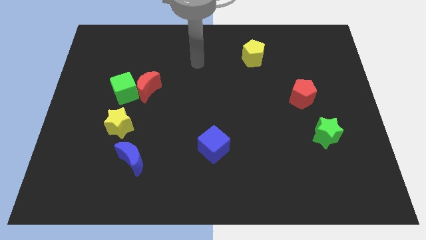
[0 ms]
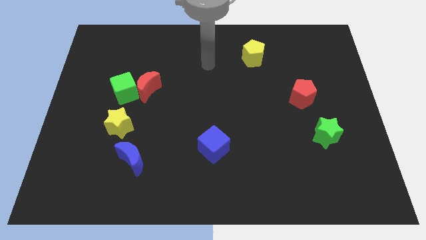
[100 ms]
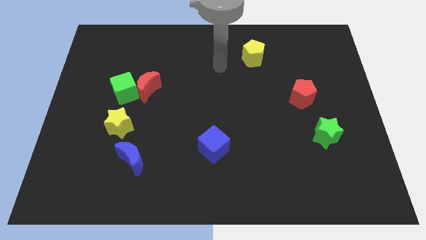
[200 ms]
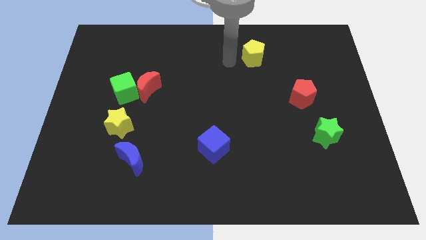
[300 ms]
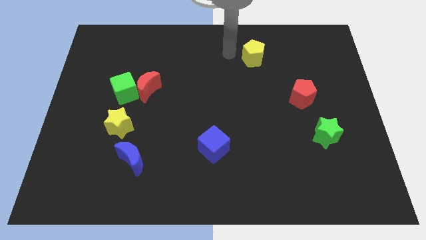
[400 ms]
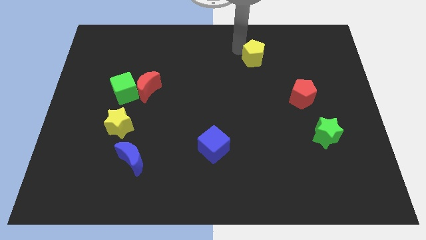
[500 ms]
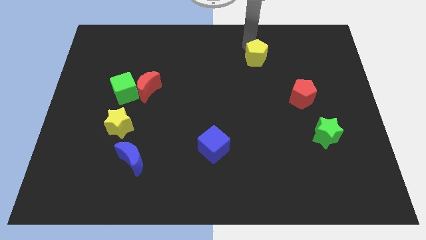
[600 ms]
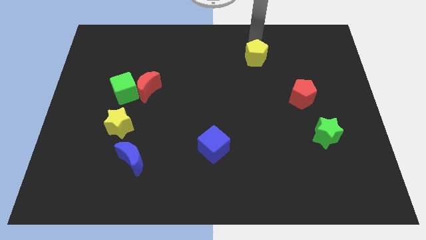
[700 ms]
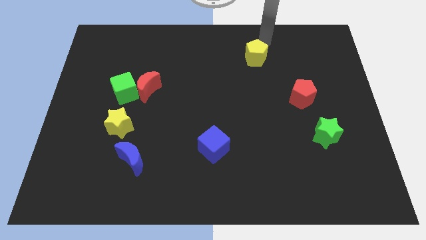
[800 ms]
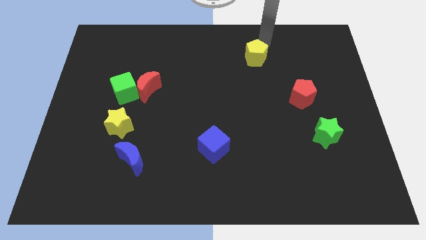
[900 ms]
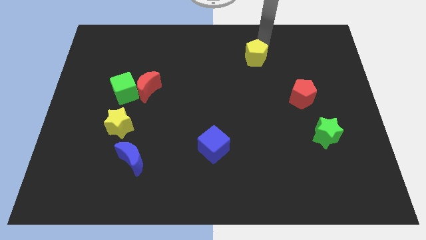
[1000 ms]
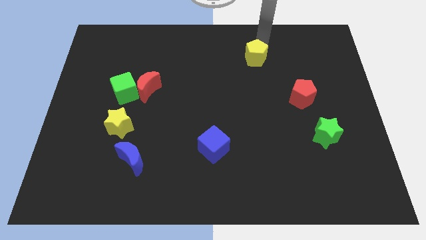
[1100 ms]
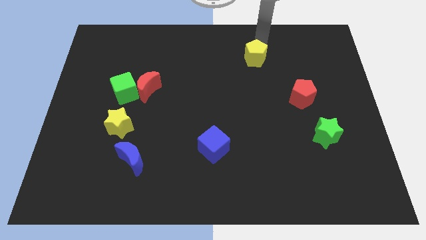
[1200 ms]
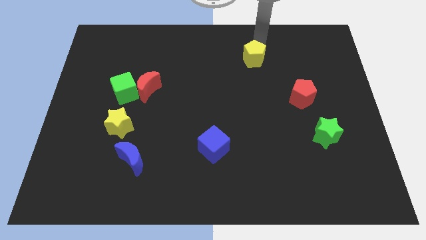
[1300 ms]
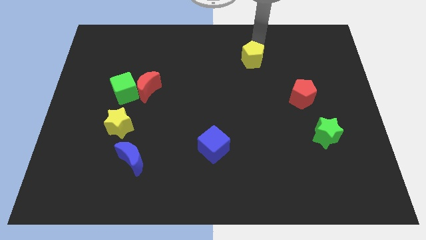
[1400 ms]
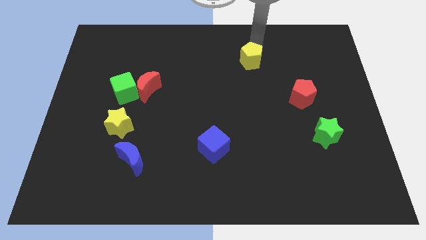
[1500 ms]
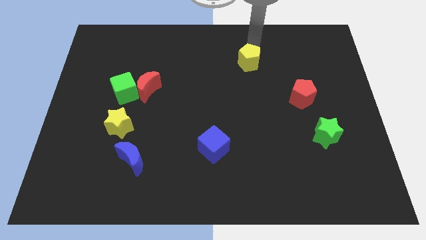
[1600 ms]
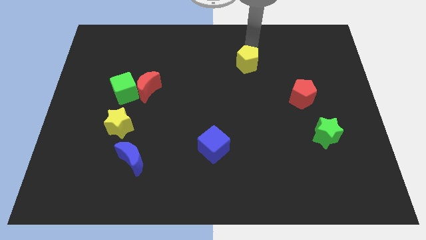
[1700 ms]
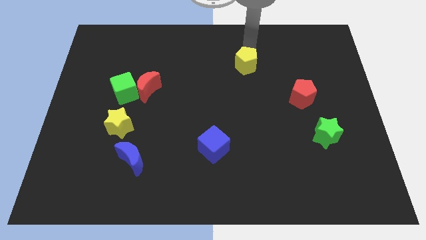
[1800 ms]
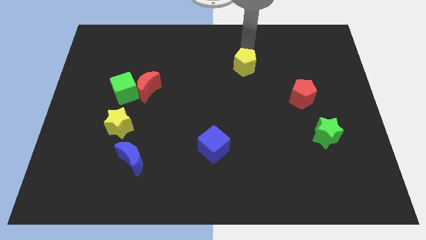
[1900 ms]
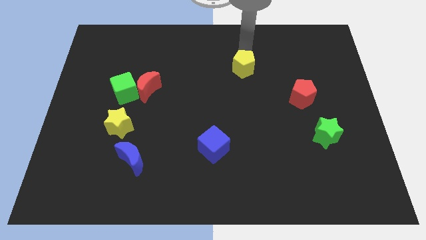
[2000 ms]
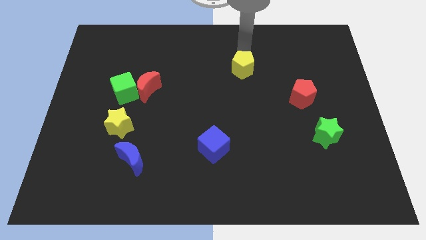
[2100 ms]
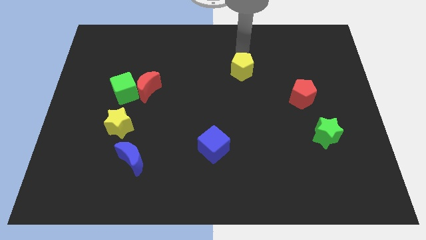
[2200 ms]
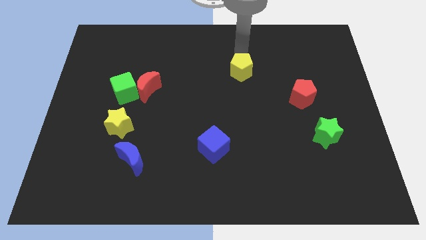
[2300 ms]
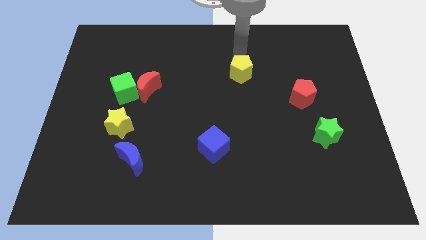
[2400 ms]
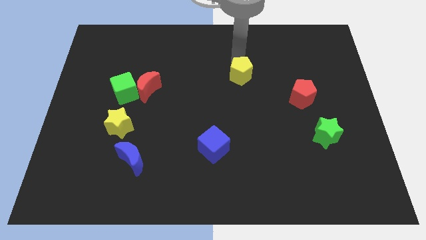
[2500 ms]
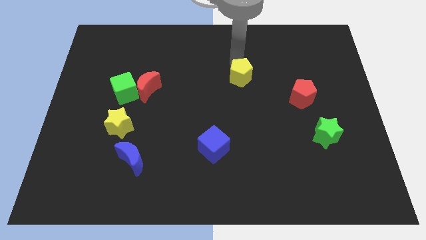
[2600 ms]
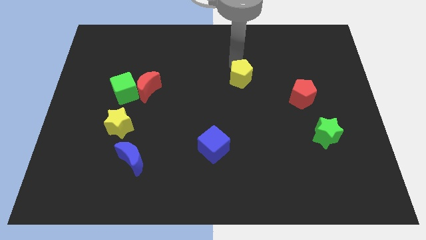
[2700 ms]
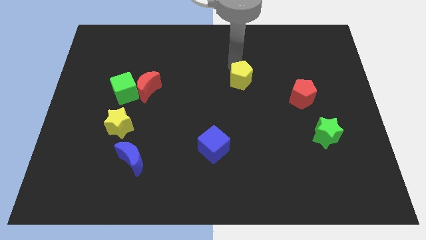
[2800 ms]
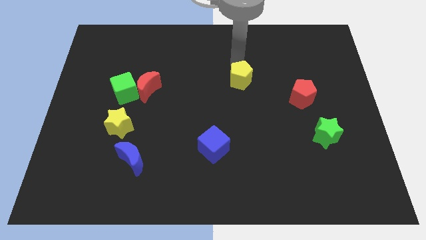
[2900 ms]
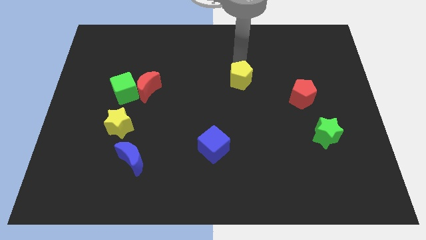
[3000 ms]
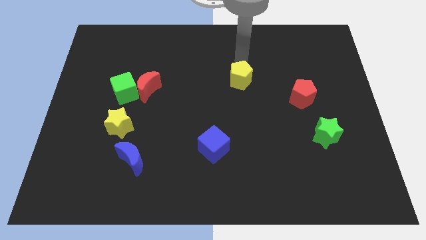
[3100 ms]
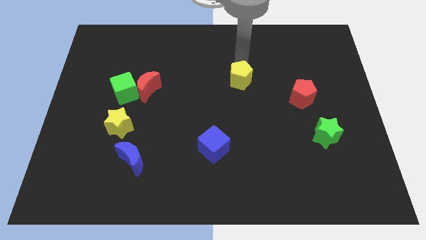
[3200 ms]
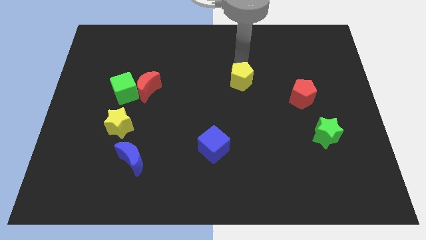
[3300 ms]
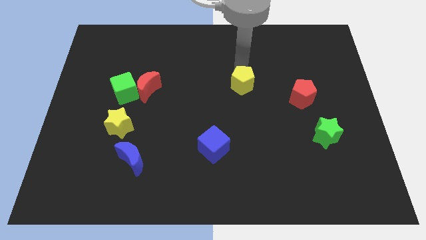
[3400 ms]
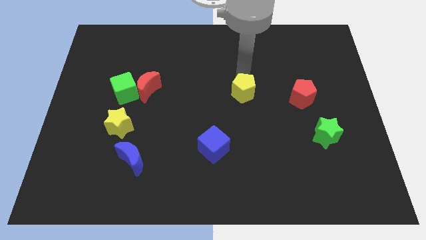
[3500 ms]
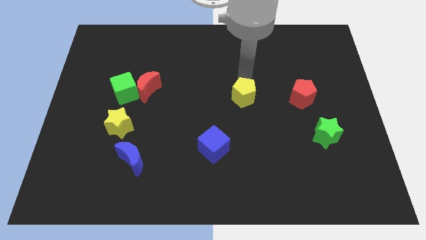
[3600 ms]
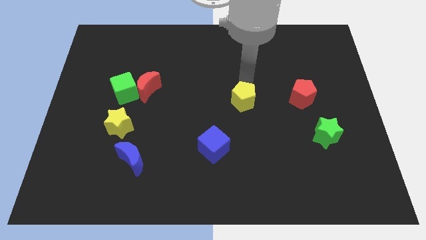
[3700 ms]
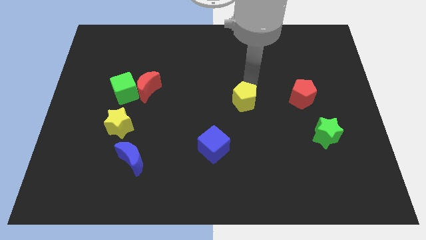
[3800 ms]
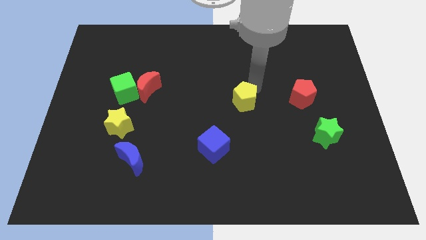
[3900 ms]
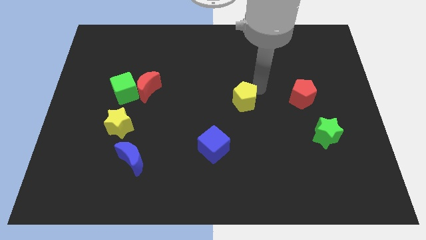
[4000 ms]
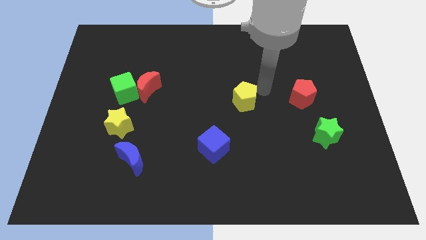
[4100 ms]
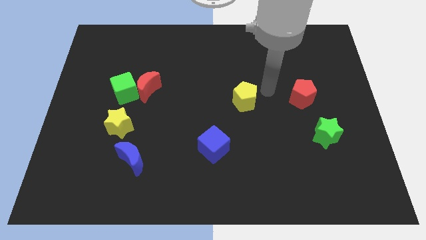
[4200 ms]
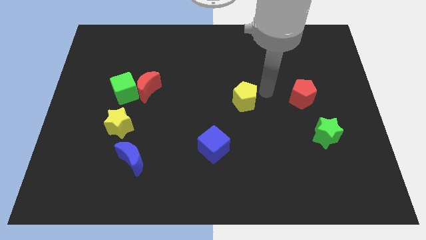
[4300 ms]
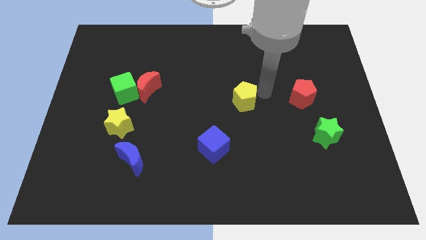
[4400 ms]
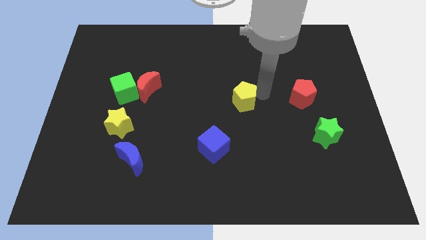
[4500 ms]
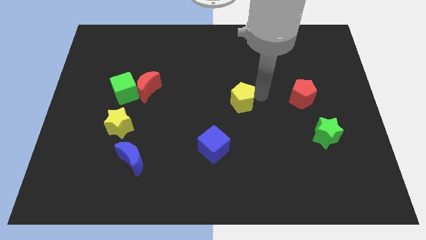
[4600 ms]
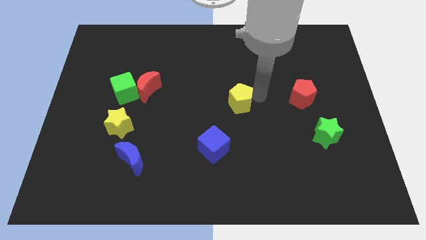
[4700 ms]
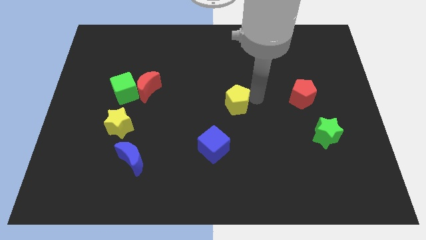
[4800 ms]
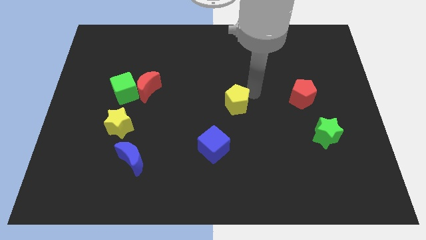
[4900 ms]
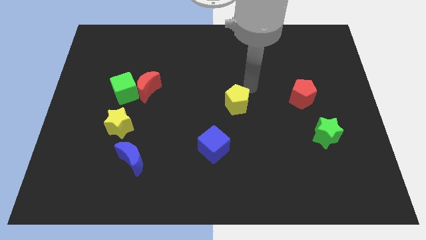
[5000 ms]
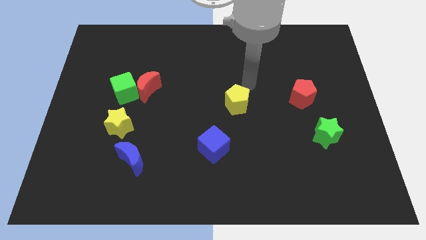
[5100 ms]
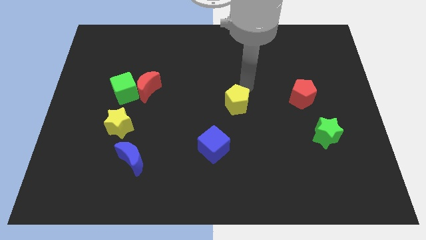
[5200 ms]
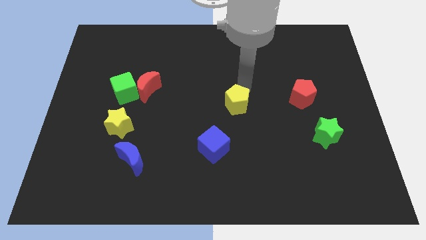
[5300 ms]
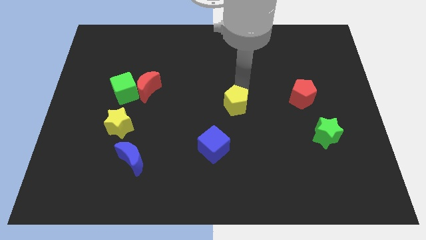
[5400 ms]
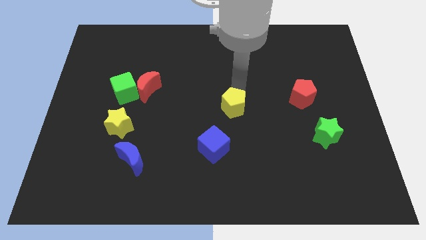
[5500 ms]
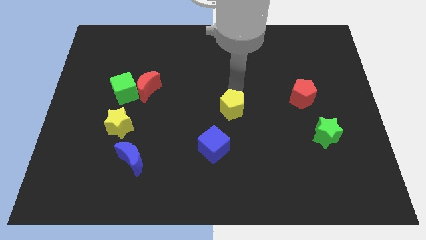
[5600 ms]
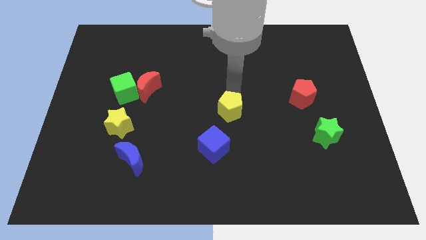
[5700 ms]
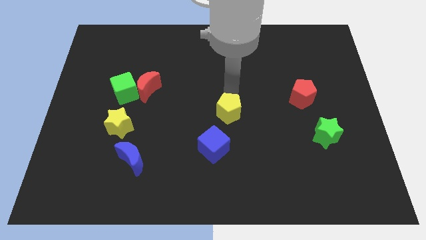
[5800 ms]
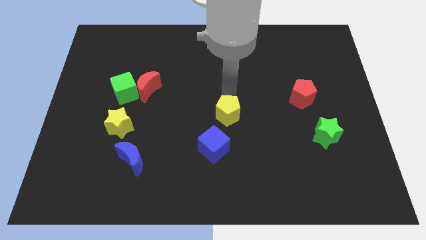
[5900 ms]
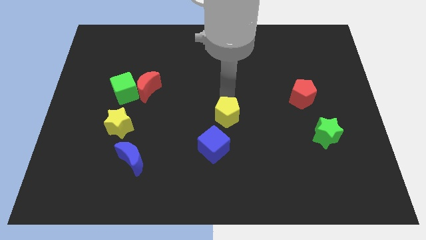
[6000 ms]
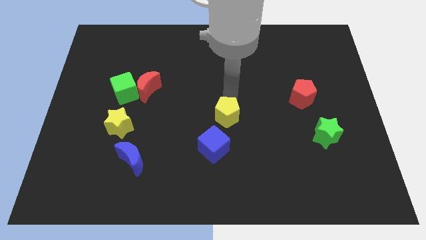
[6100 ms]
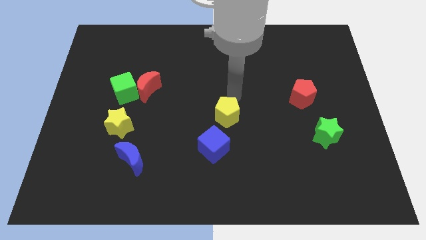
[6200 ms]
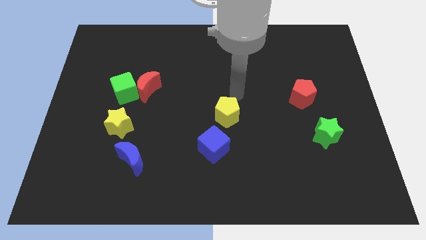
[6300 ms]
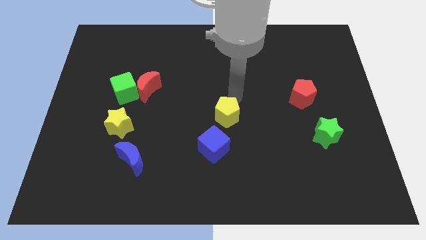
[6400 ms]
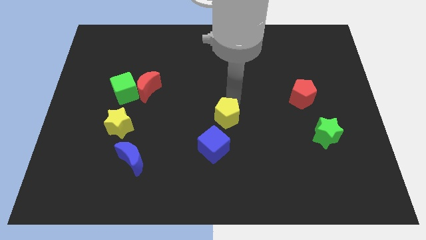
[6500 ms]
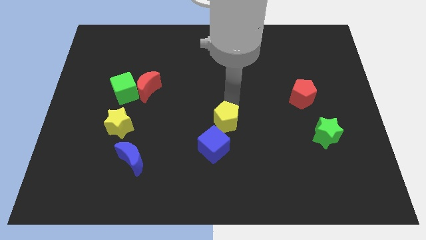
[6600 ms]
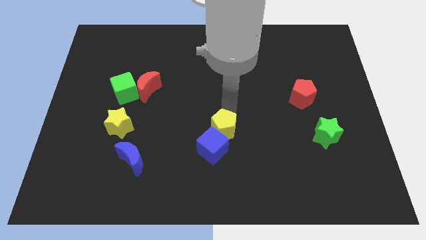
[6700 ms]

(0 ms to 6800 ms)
push the yellow pentagon towards the blue cube
